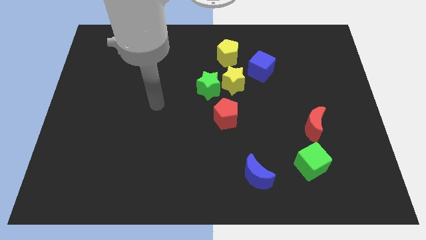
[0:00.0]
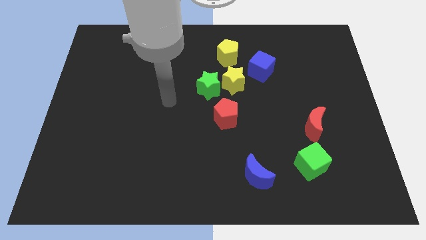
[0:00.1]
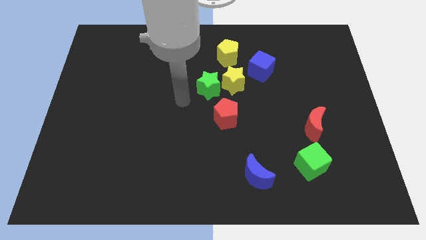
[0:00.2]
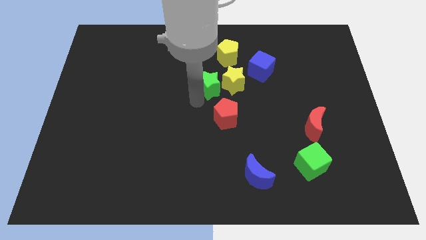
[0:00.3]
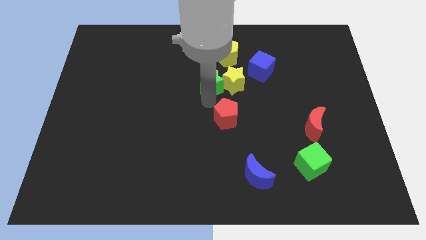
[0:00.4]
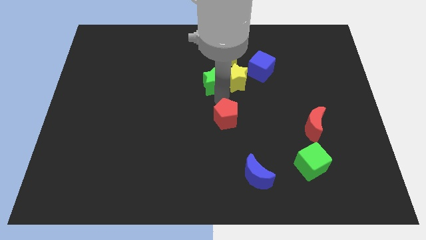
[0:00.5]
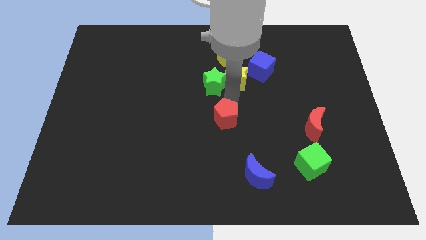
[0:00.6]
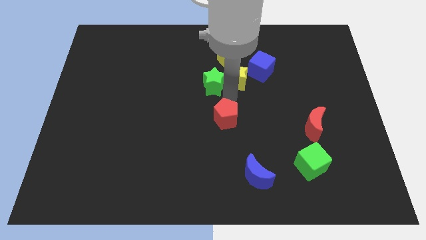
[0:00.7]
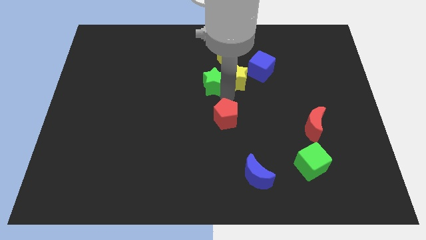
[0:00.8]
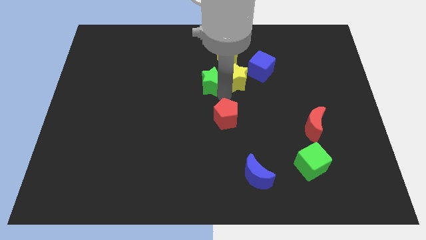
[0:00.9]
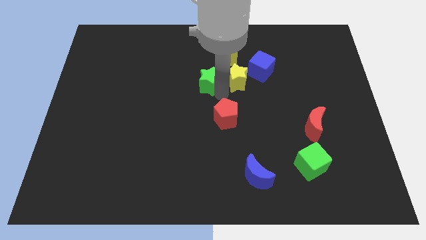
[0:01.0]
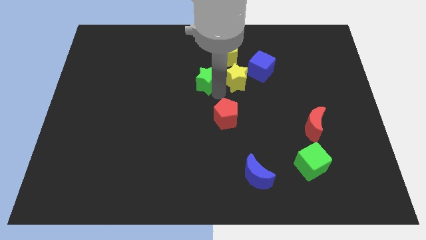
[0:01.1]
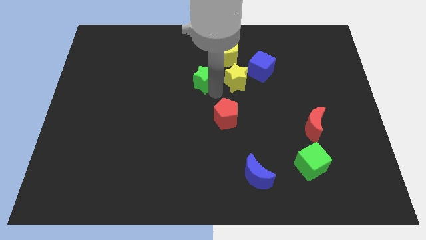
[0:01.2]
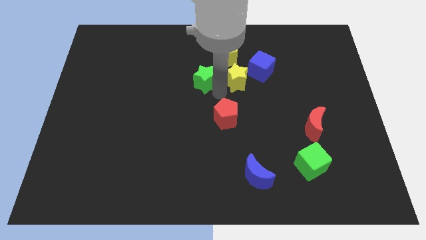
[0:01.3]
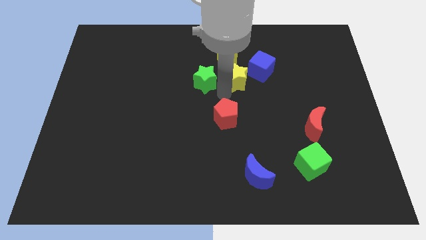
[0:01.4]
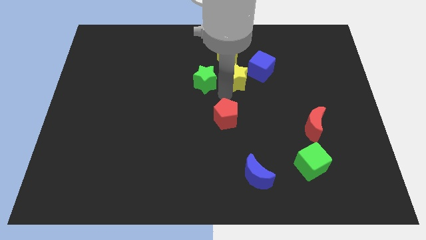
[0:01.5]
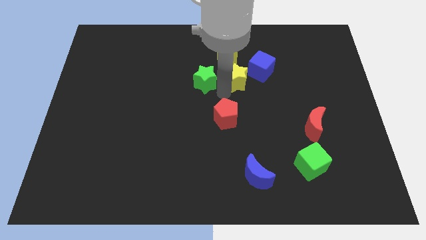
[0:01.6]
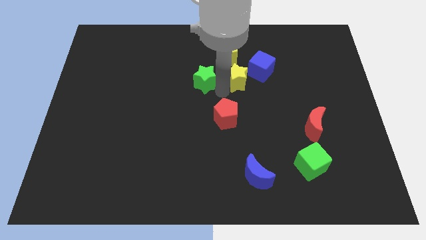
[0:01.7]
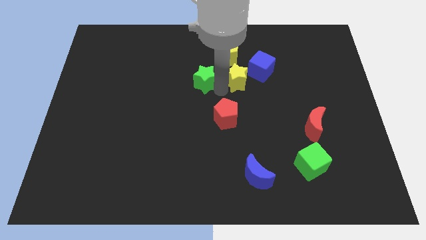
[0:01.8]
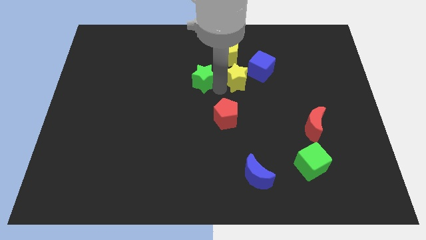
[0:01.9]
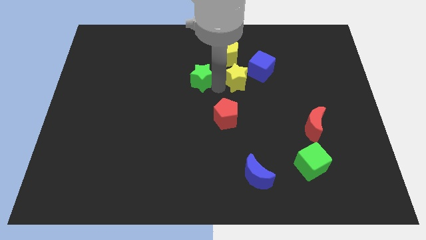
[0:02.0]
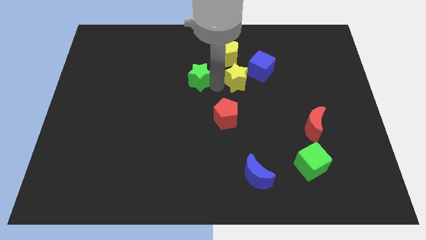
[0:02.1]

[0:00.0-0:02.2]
move the green star away from the yellow star and red pentagon

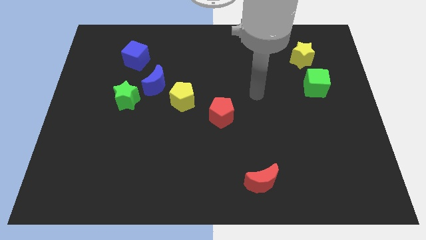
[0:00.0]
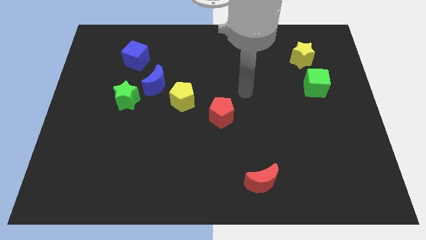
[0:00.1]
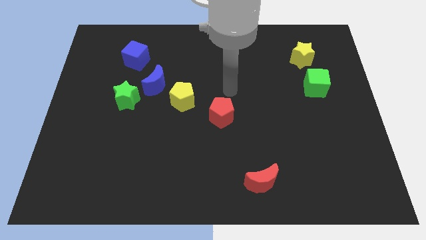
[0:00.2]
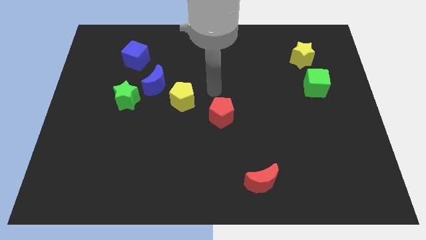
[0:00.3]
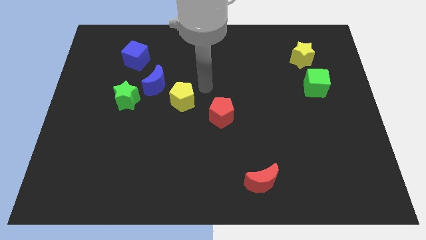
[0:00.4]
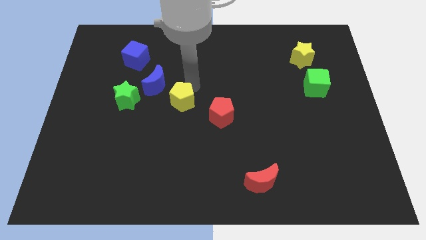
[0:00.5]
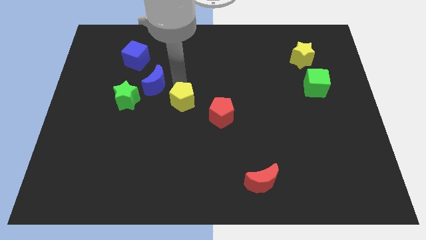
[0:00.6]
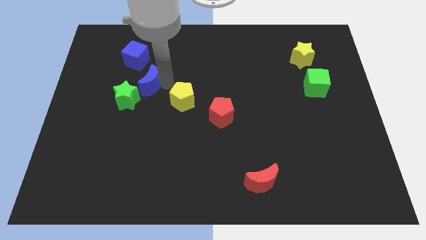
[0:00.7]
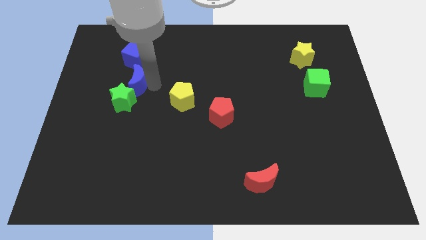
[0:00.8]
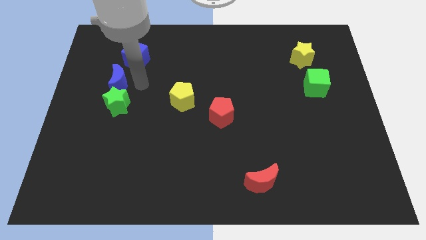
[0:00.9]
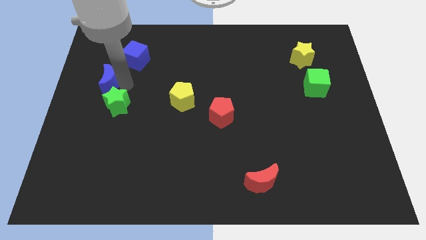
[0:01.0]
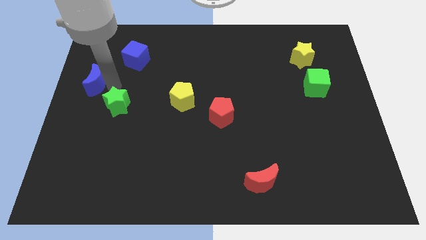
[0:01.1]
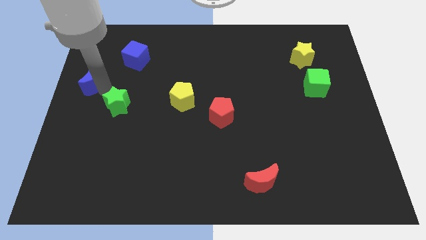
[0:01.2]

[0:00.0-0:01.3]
pull the green star apart from the blue moon

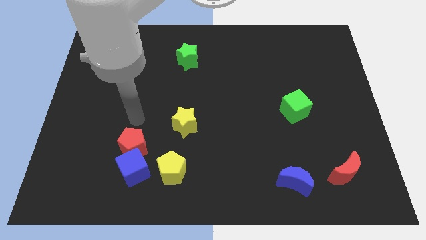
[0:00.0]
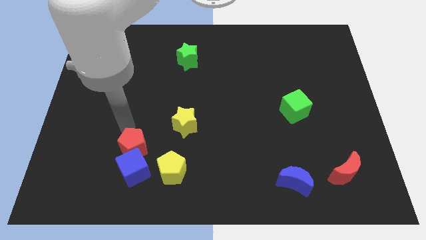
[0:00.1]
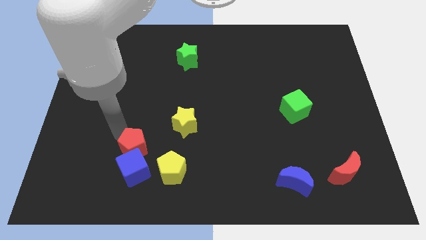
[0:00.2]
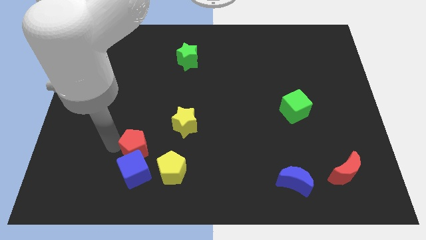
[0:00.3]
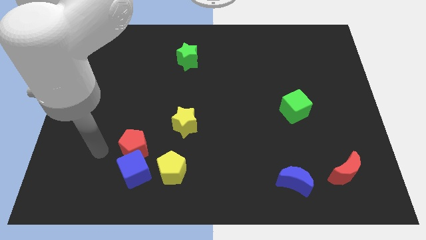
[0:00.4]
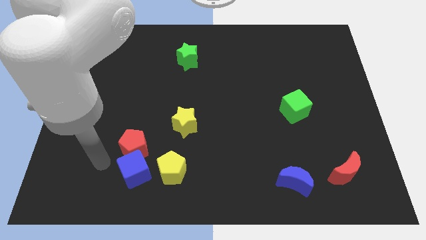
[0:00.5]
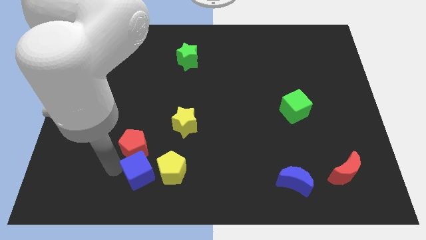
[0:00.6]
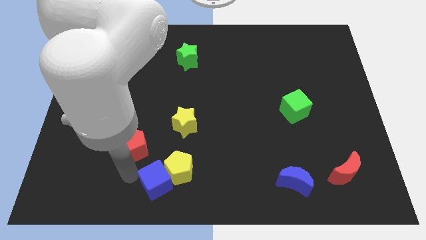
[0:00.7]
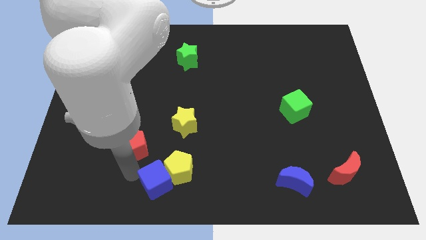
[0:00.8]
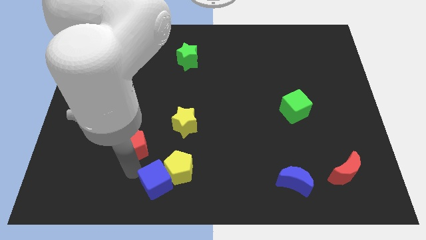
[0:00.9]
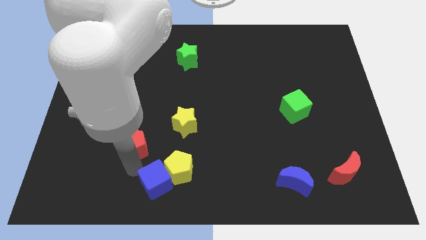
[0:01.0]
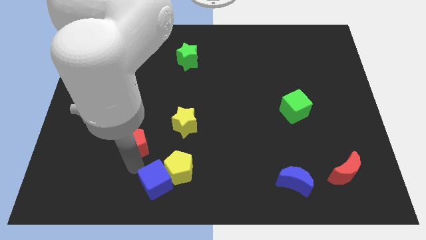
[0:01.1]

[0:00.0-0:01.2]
move the red pentagon away from the blue cube

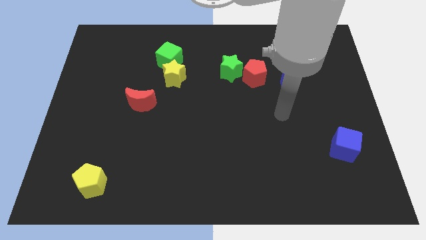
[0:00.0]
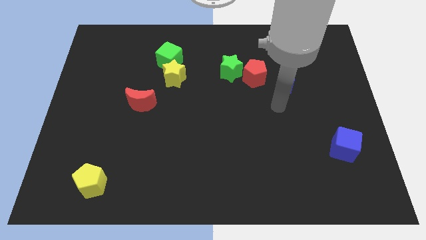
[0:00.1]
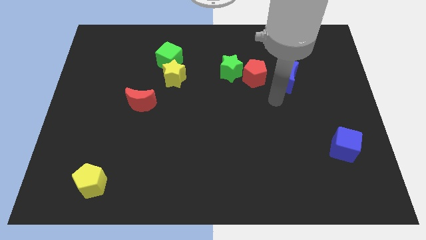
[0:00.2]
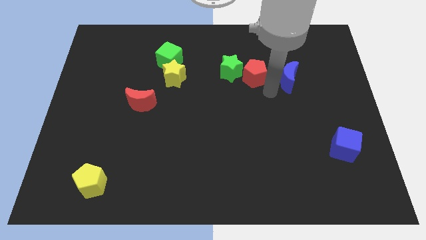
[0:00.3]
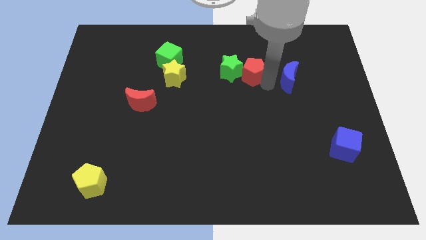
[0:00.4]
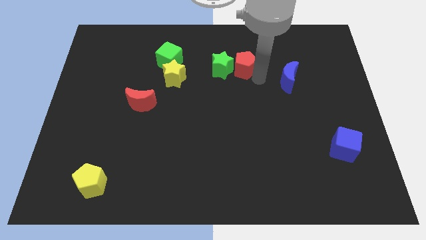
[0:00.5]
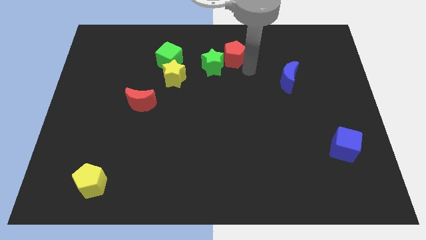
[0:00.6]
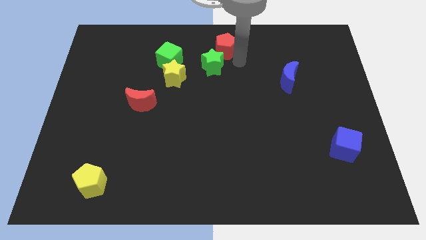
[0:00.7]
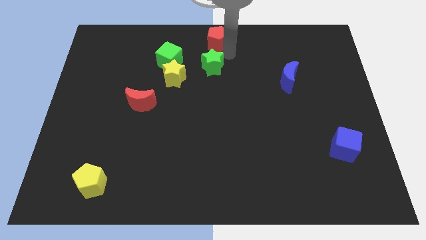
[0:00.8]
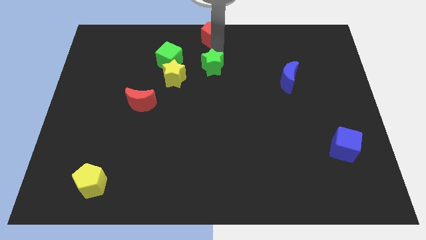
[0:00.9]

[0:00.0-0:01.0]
move the green star away from the red pentagon

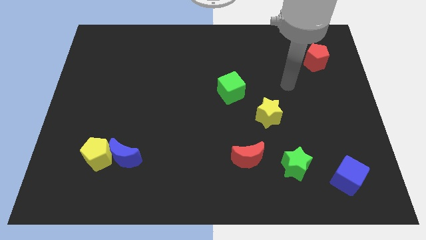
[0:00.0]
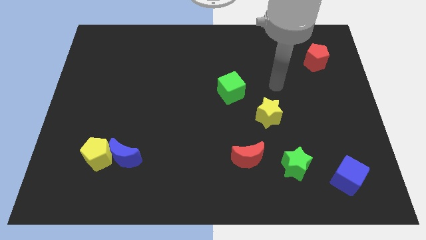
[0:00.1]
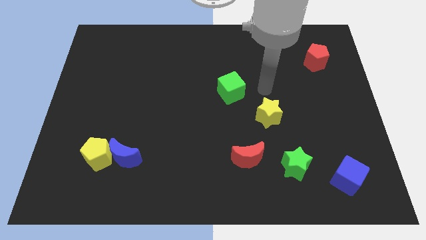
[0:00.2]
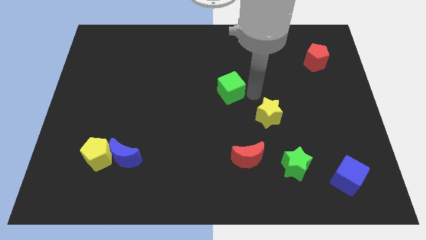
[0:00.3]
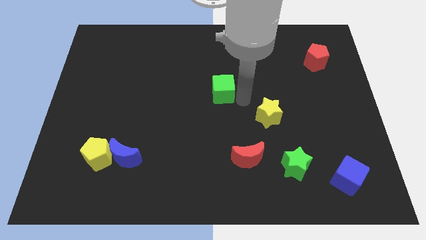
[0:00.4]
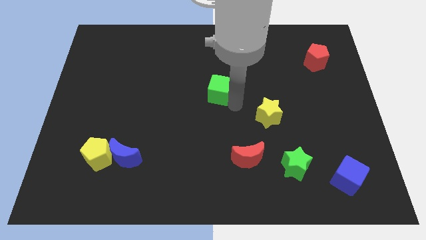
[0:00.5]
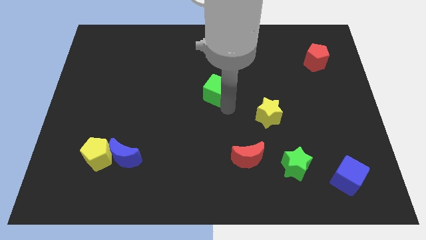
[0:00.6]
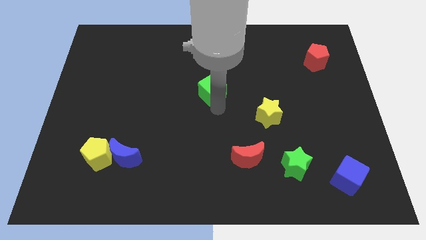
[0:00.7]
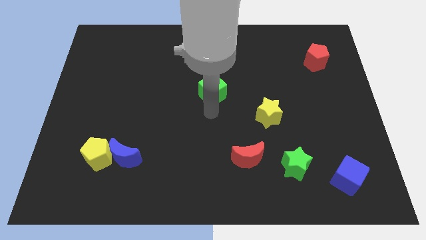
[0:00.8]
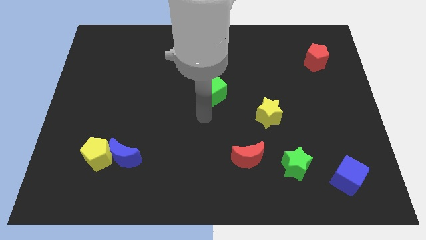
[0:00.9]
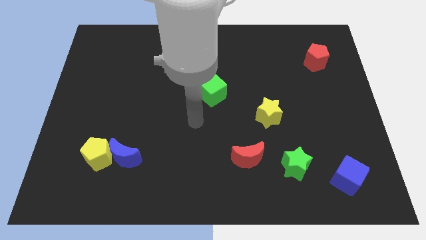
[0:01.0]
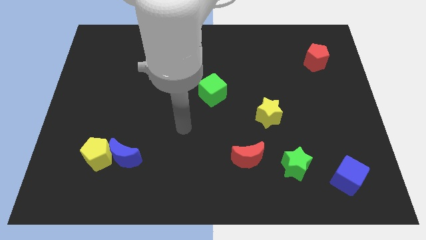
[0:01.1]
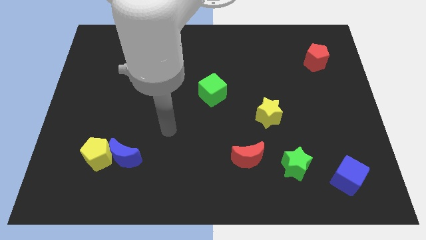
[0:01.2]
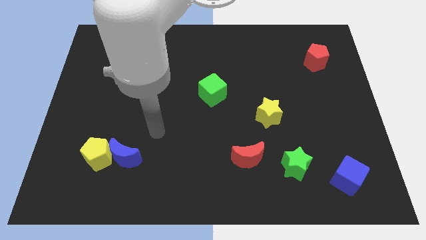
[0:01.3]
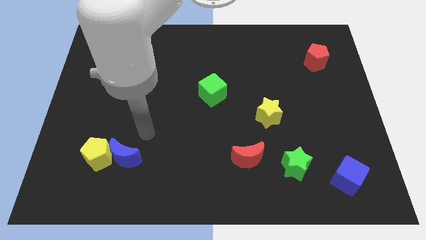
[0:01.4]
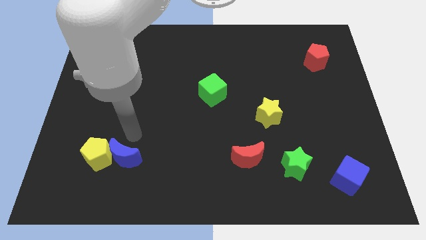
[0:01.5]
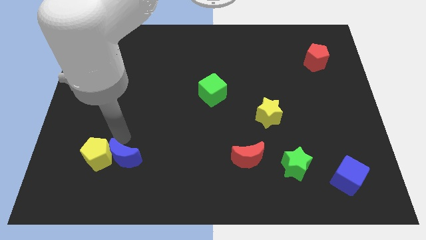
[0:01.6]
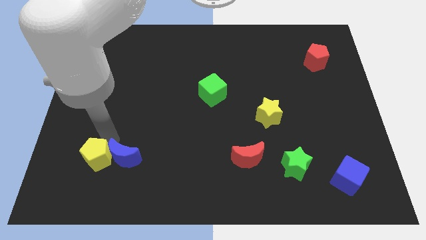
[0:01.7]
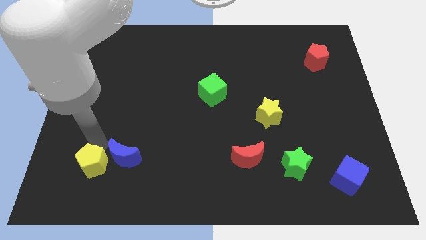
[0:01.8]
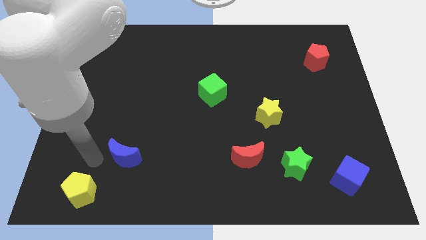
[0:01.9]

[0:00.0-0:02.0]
separate the blue moon from the yellow pentagon

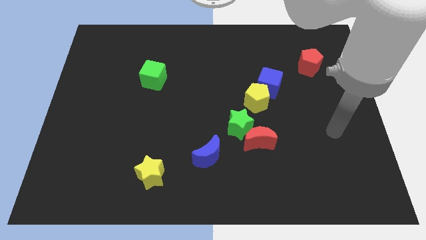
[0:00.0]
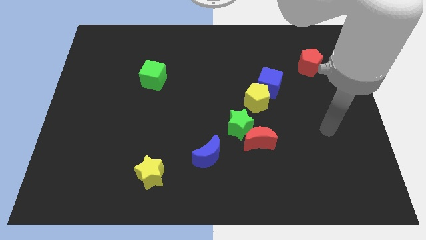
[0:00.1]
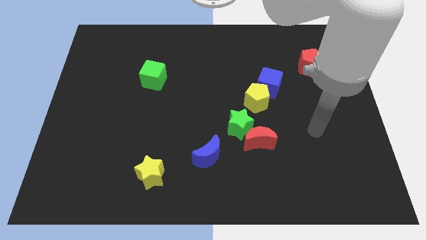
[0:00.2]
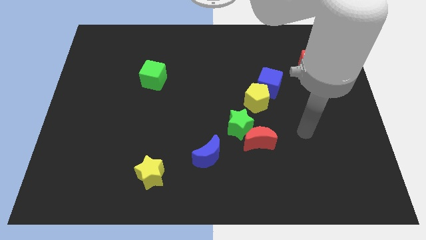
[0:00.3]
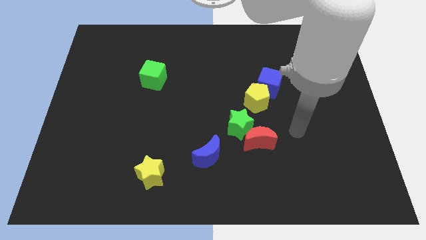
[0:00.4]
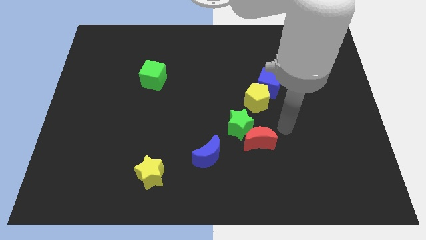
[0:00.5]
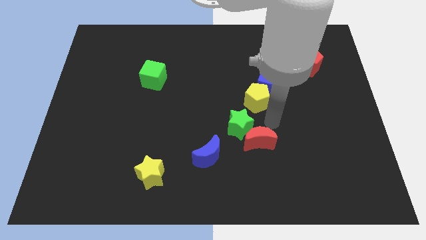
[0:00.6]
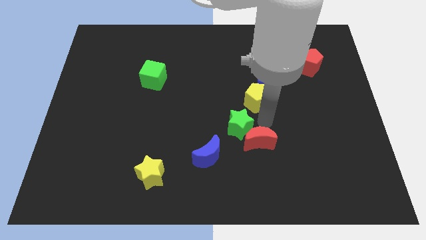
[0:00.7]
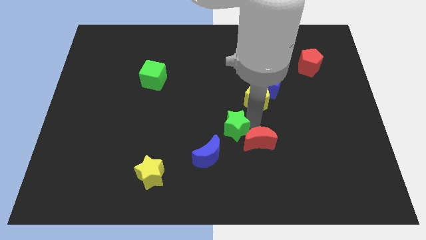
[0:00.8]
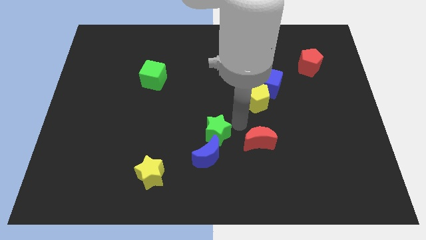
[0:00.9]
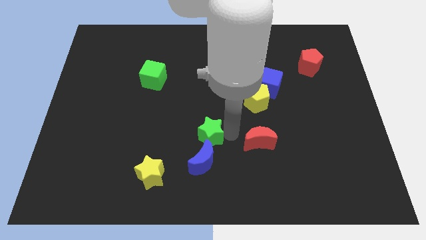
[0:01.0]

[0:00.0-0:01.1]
pull the red moon apart from the green star

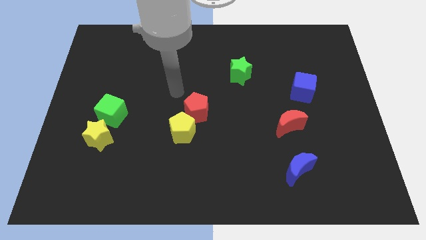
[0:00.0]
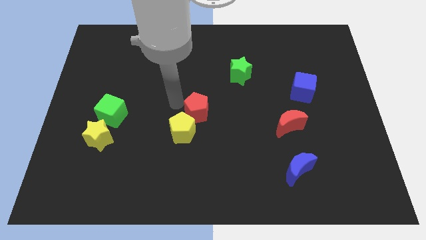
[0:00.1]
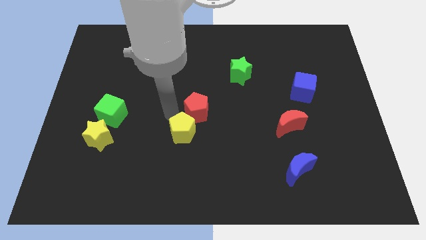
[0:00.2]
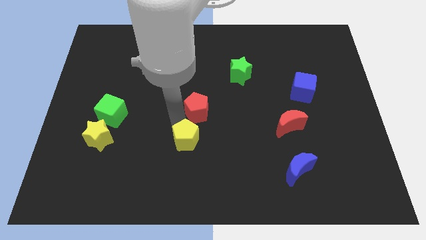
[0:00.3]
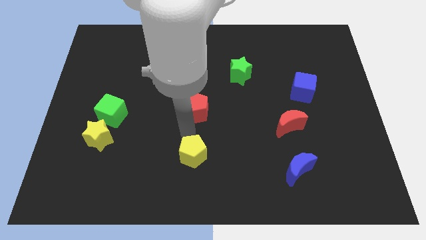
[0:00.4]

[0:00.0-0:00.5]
separate the red pentagon from the yellow pentagon
